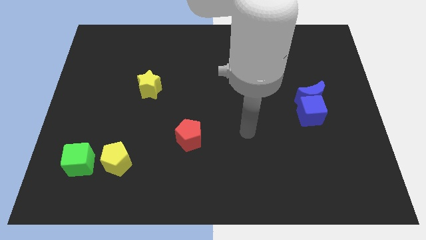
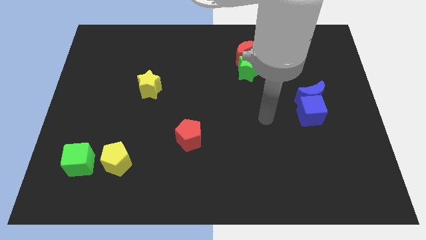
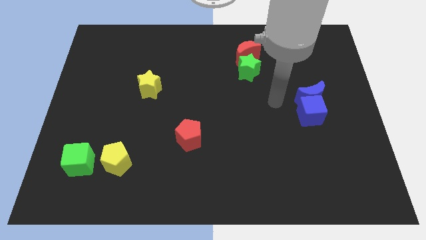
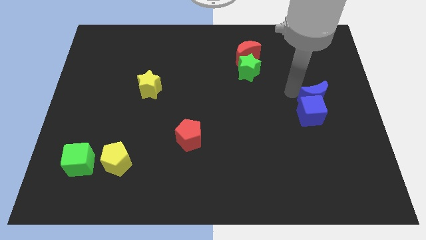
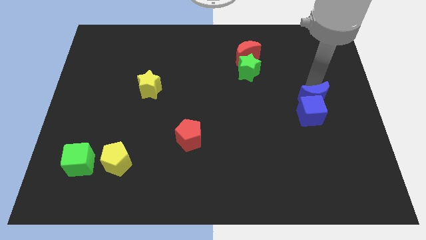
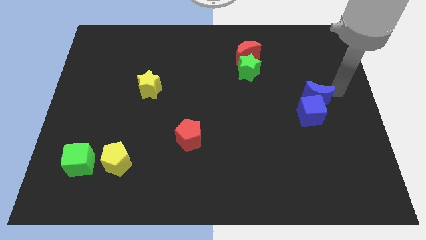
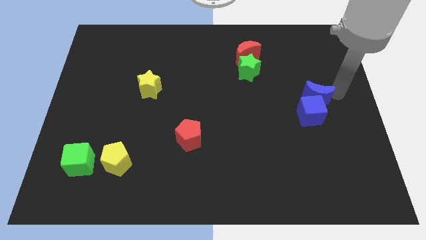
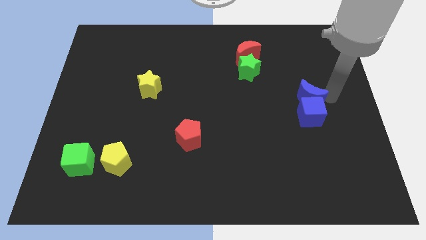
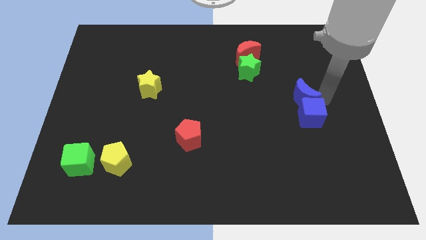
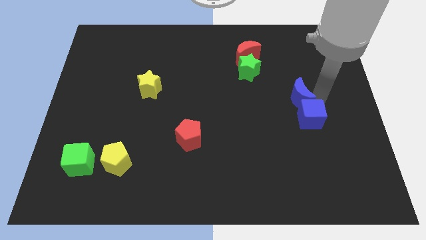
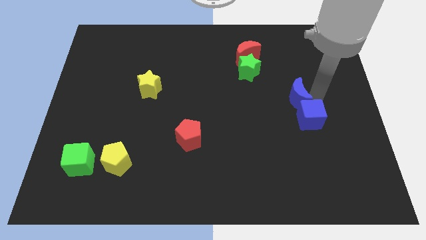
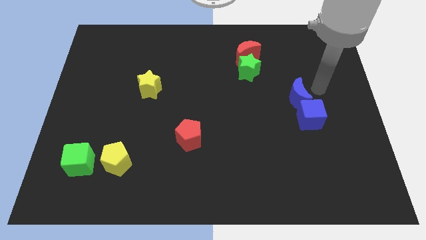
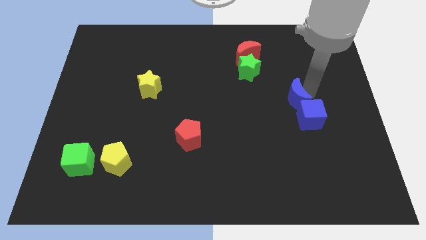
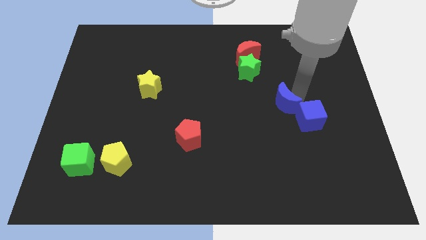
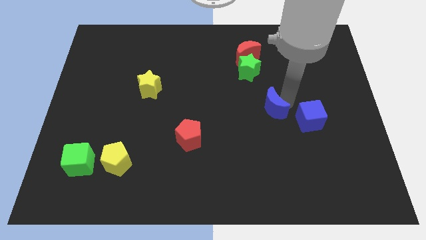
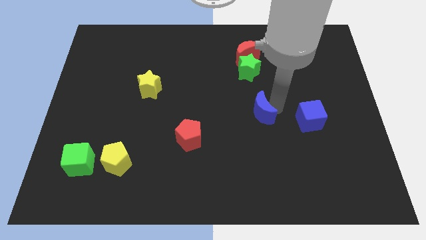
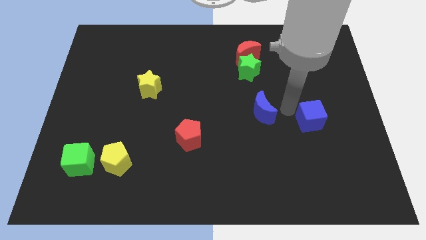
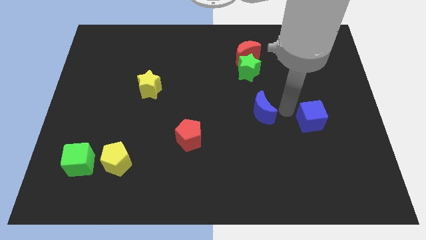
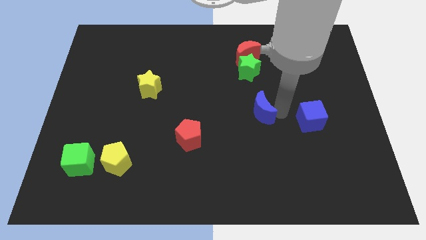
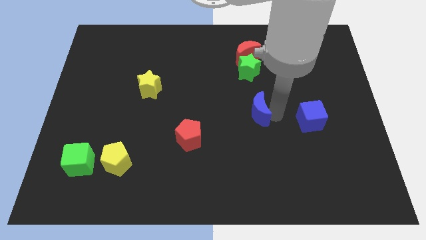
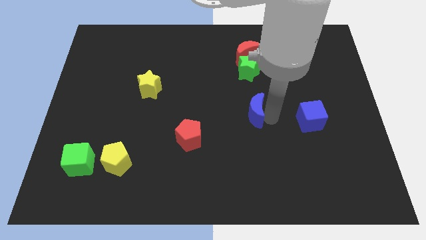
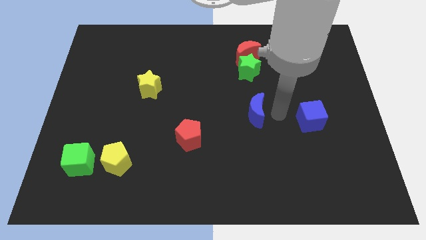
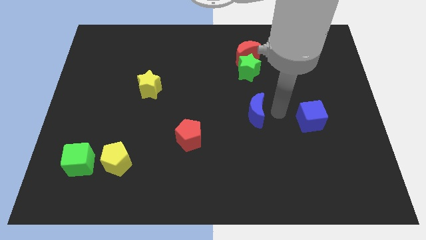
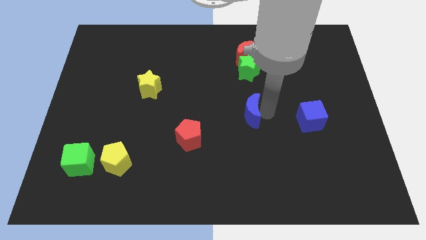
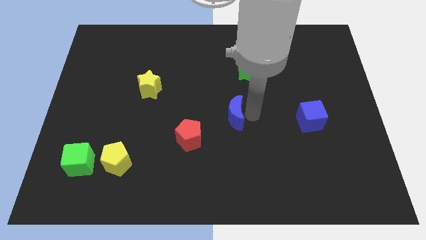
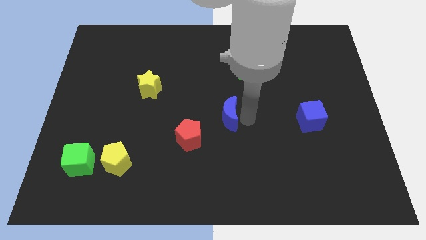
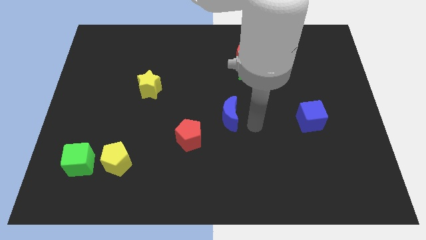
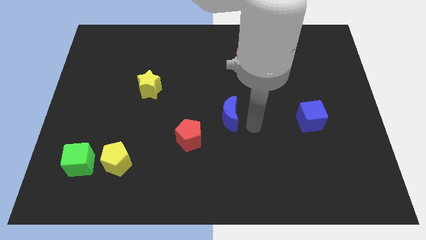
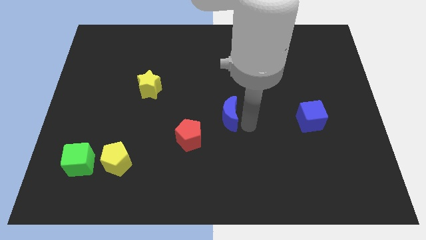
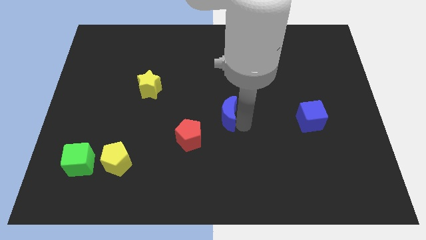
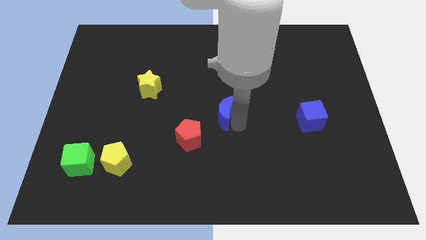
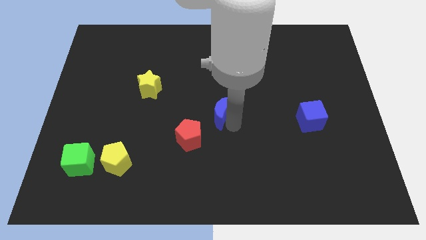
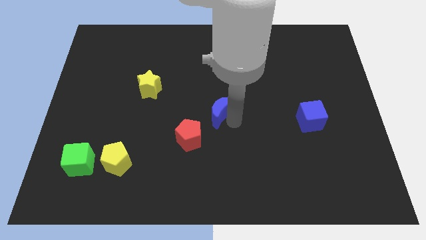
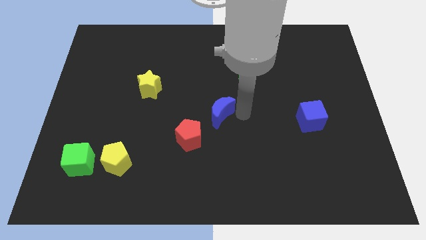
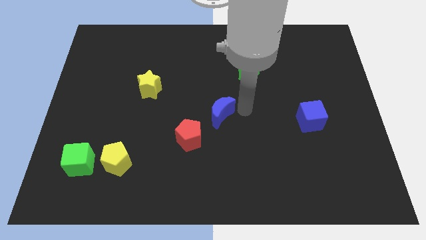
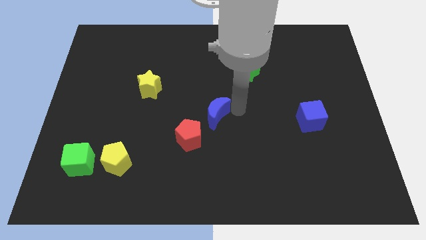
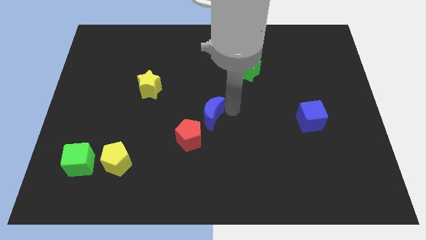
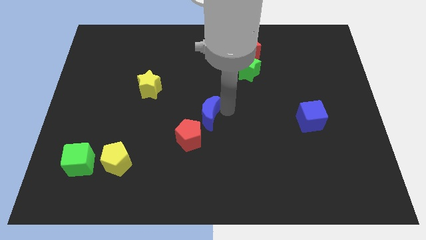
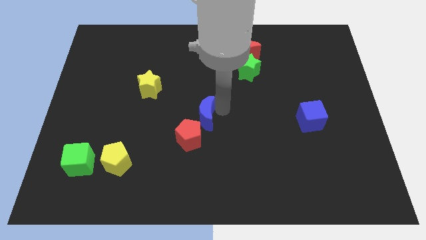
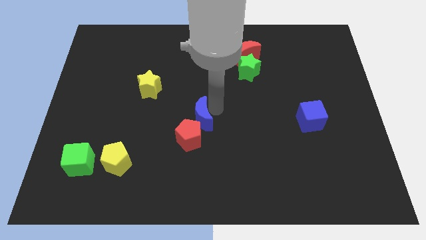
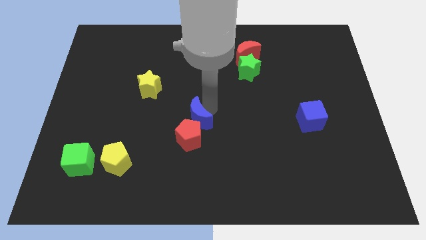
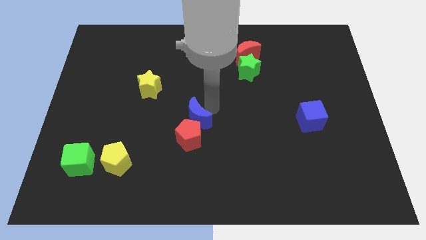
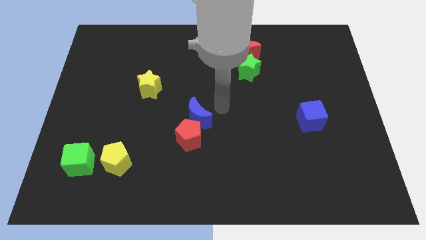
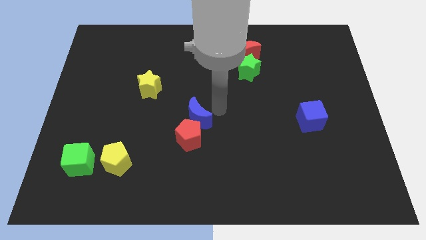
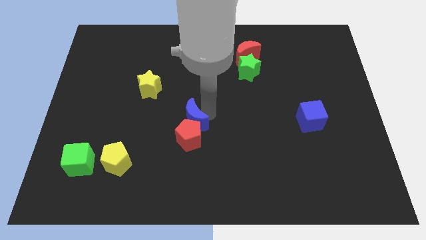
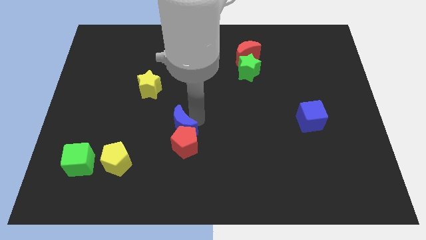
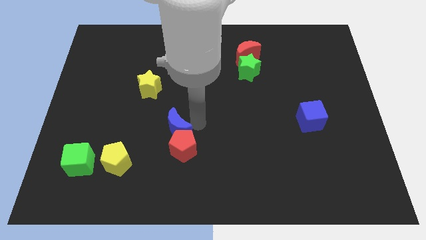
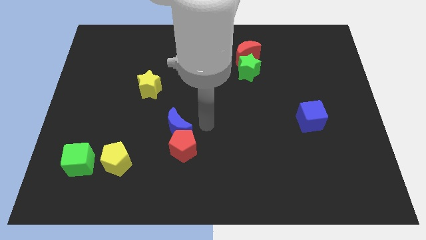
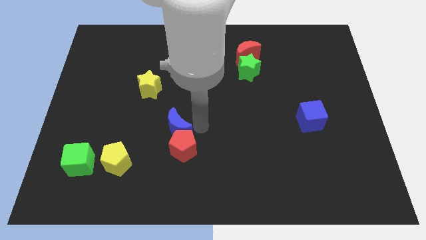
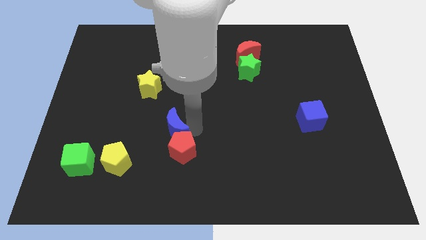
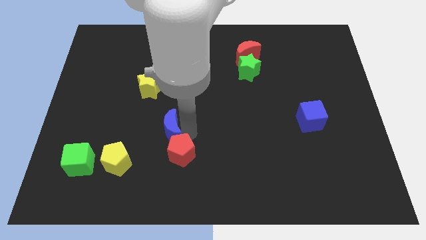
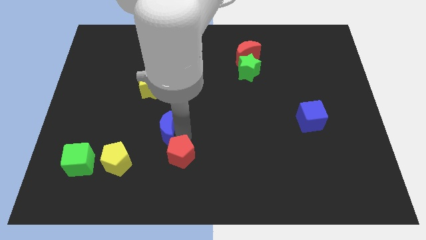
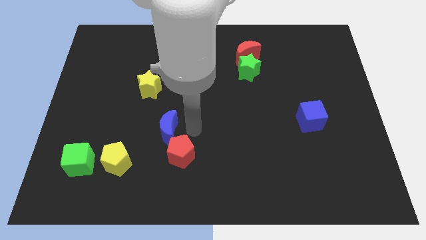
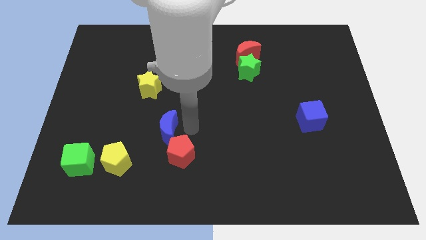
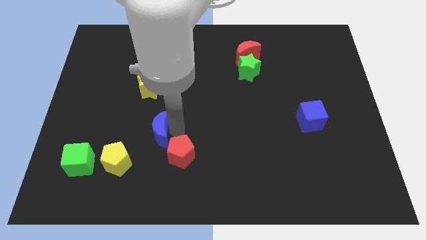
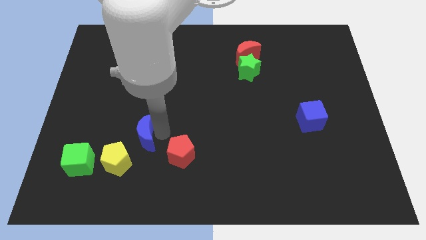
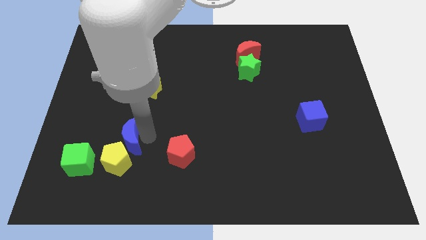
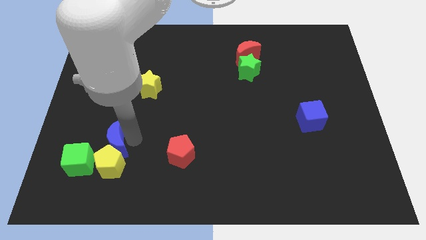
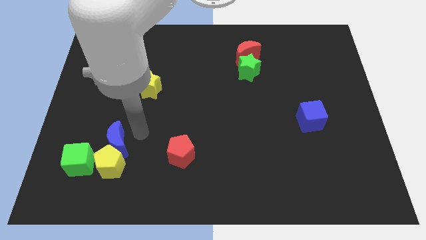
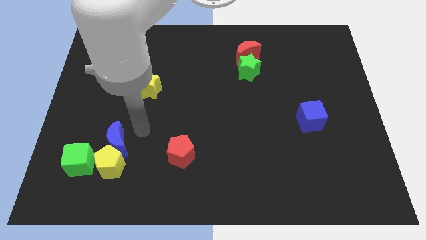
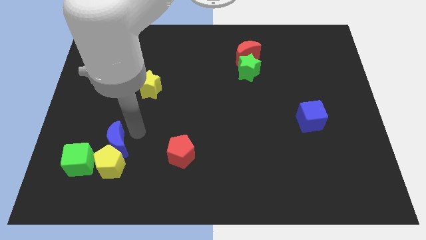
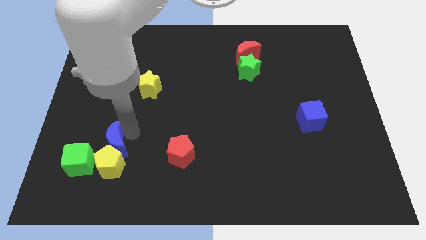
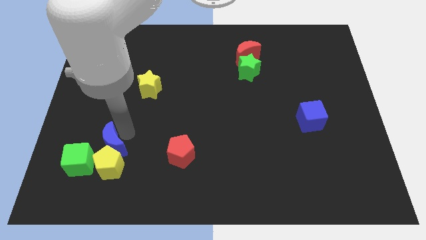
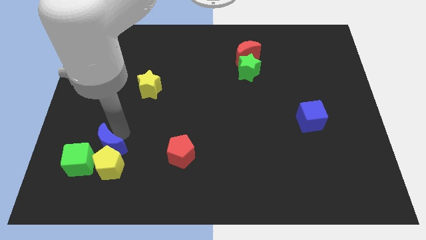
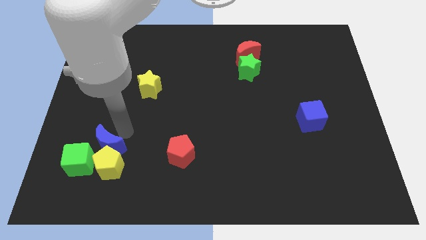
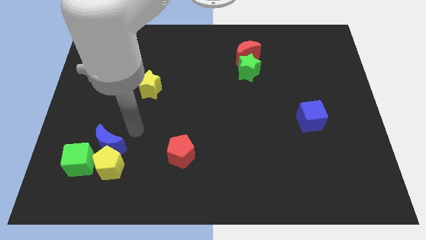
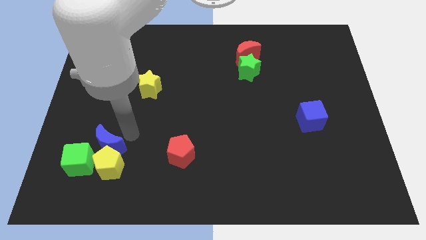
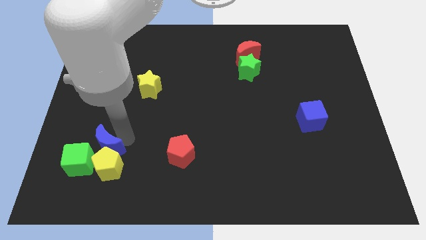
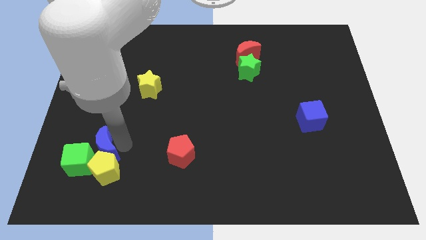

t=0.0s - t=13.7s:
push the blue moon to the green cube
